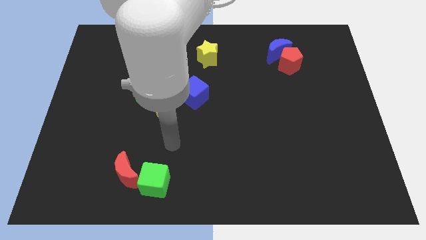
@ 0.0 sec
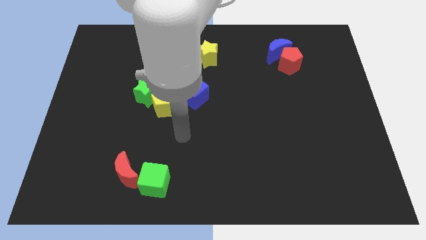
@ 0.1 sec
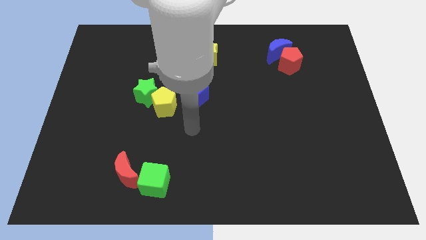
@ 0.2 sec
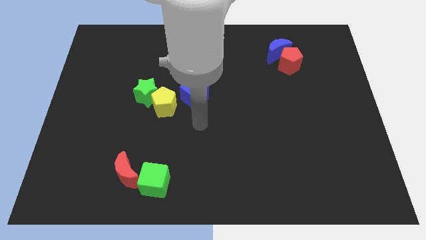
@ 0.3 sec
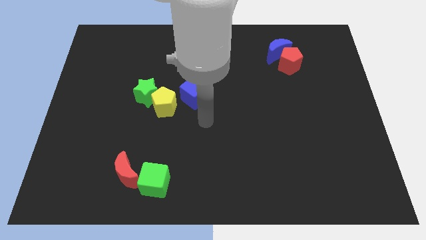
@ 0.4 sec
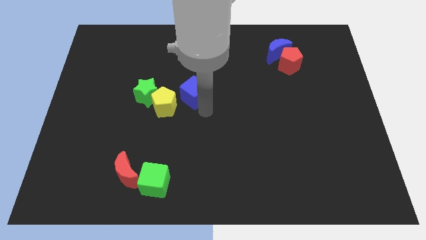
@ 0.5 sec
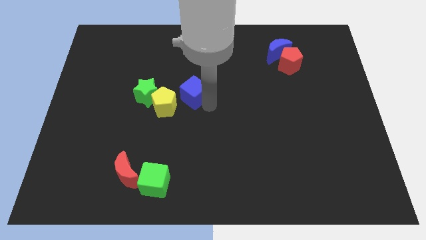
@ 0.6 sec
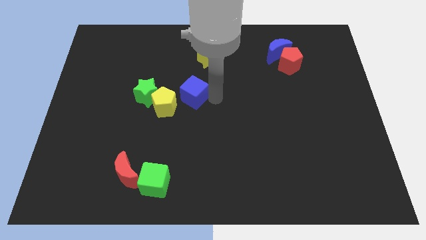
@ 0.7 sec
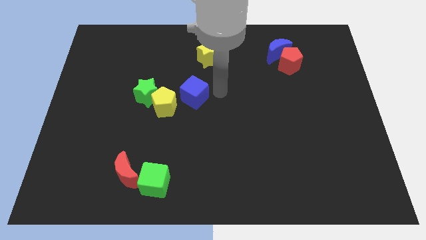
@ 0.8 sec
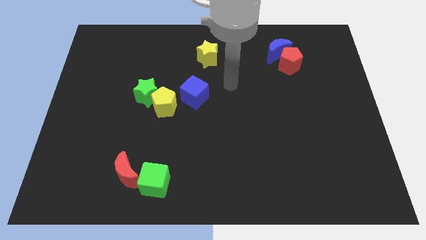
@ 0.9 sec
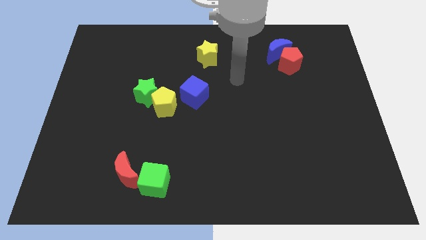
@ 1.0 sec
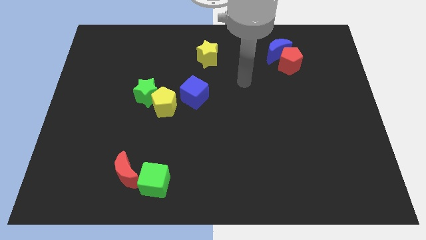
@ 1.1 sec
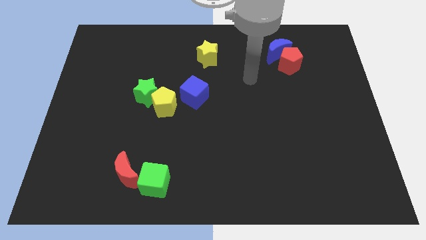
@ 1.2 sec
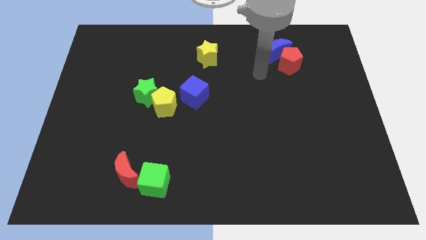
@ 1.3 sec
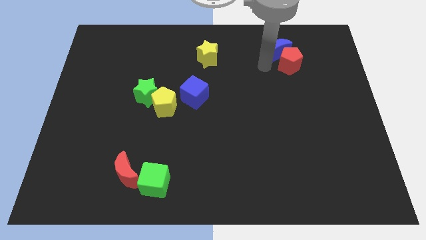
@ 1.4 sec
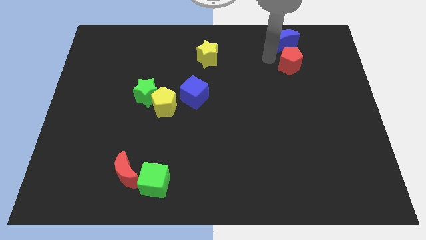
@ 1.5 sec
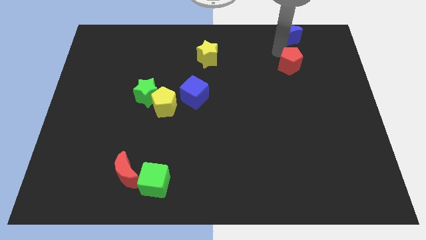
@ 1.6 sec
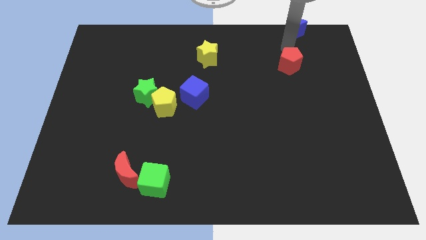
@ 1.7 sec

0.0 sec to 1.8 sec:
move the red pentagon away from the blue moon

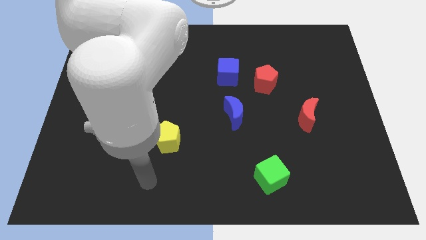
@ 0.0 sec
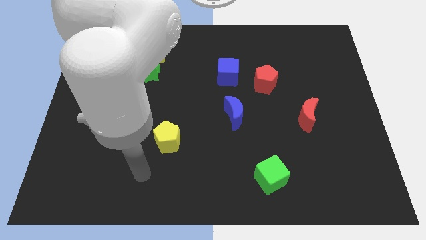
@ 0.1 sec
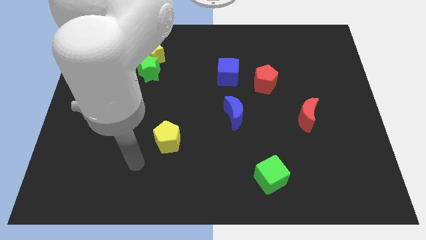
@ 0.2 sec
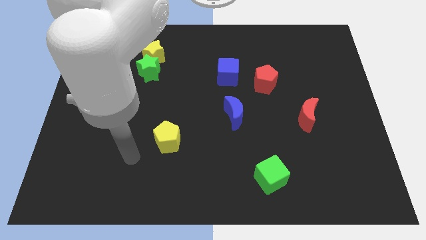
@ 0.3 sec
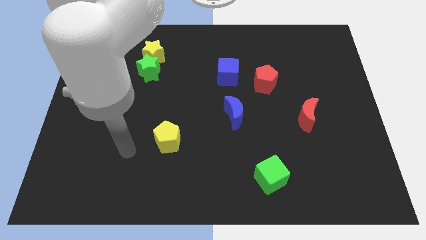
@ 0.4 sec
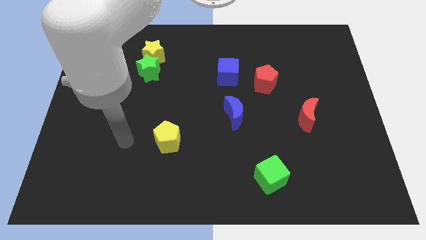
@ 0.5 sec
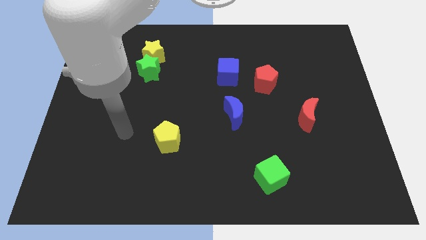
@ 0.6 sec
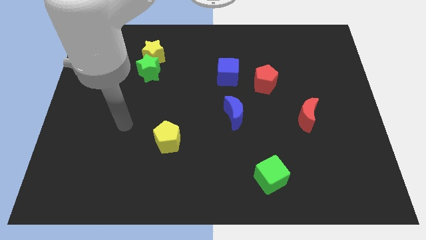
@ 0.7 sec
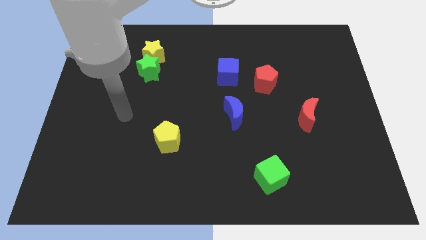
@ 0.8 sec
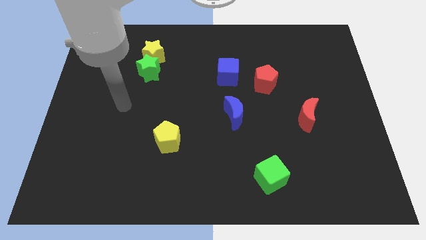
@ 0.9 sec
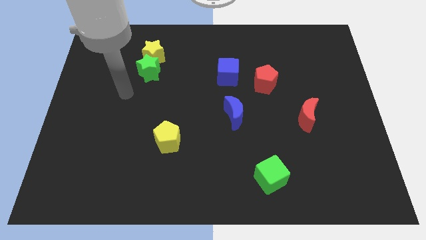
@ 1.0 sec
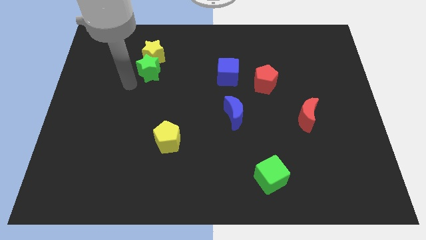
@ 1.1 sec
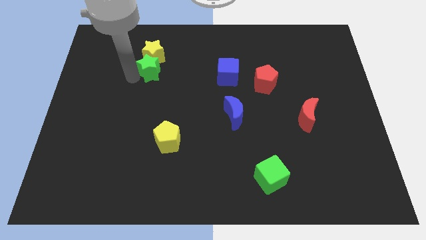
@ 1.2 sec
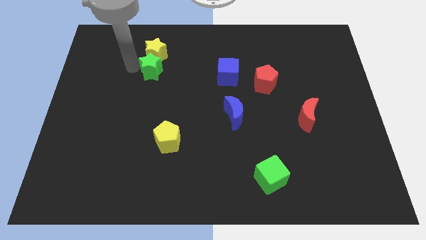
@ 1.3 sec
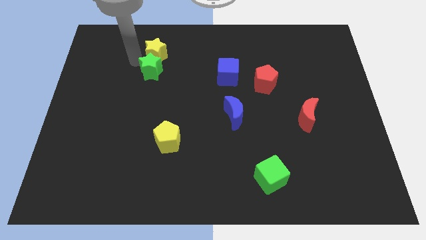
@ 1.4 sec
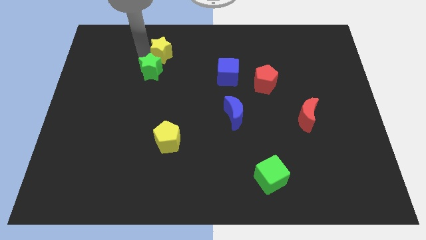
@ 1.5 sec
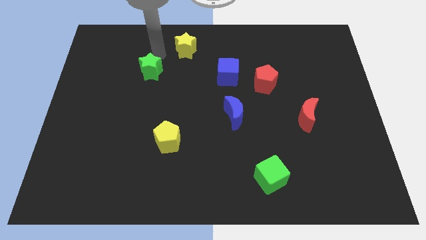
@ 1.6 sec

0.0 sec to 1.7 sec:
move the green star away from the yellow star

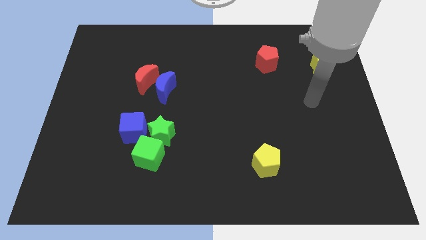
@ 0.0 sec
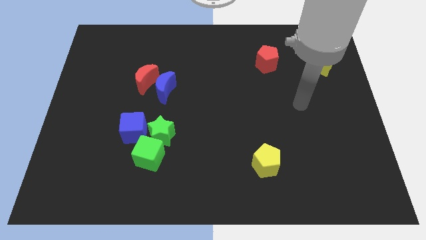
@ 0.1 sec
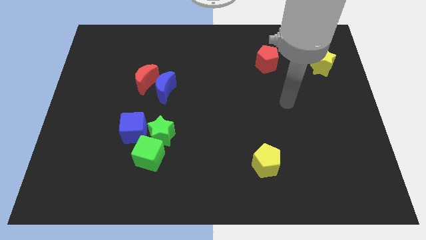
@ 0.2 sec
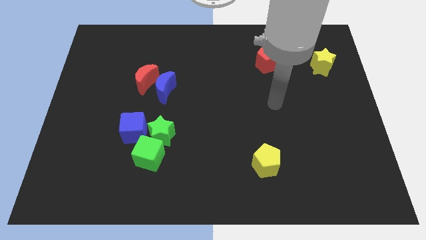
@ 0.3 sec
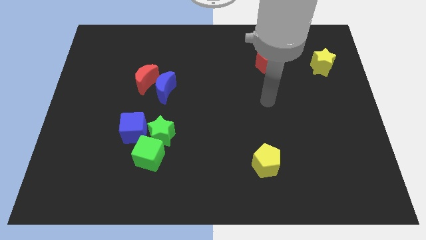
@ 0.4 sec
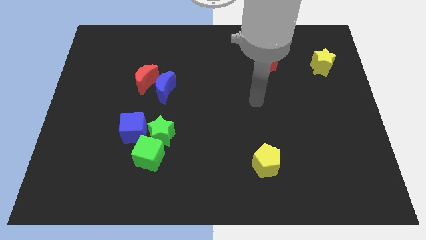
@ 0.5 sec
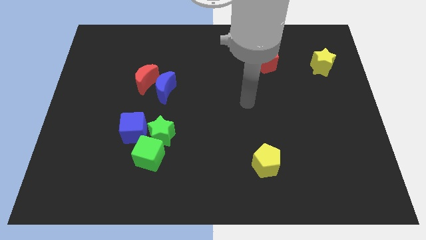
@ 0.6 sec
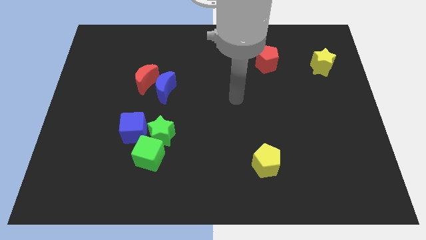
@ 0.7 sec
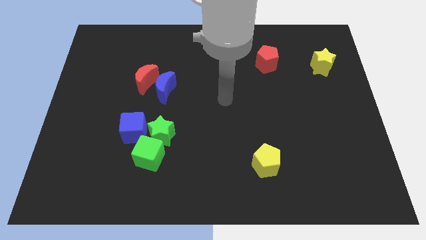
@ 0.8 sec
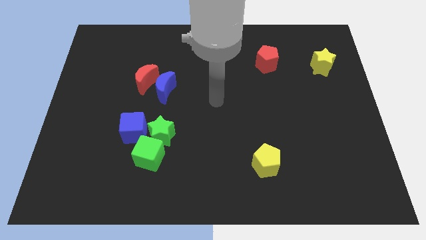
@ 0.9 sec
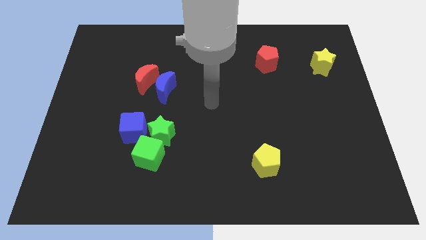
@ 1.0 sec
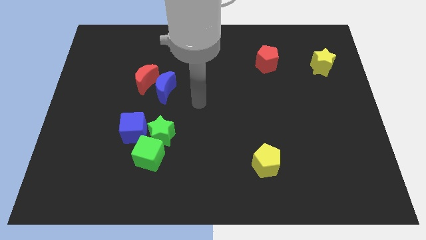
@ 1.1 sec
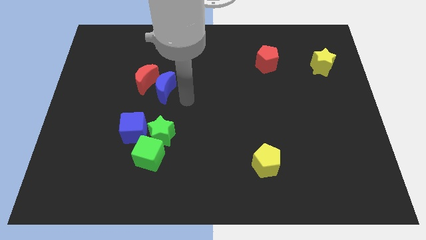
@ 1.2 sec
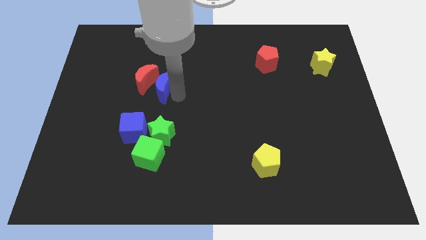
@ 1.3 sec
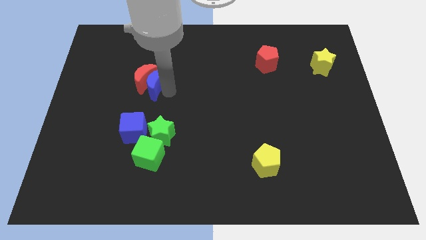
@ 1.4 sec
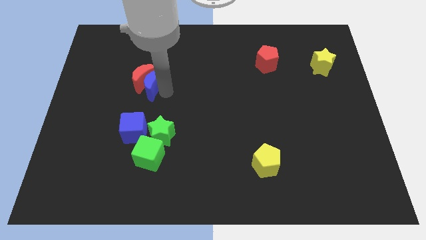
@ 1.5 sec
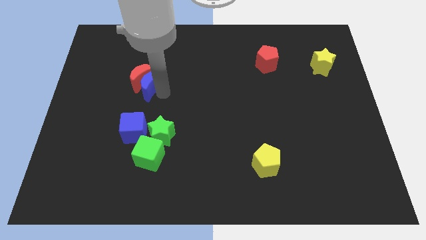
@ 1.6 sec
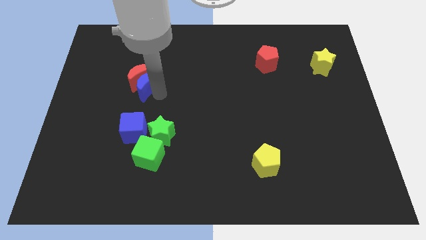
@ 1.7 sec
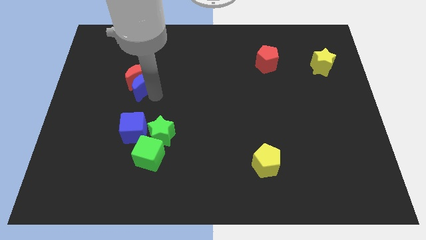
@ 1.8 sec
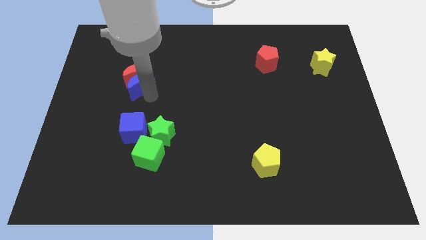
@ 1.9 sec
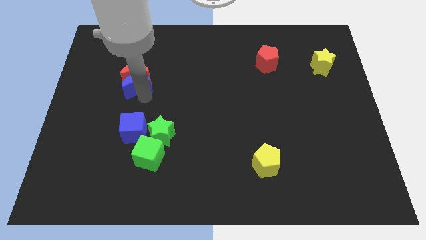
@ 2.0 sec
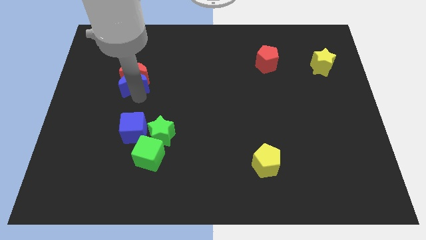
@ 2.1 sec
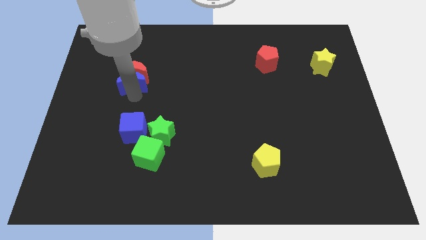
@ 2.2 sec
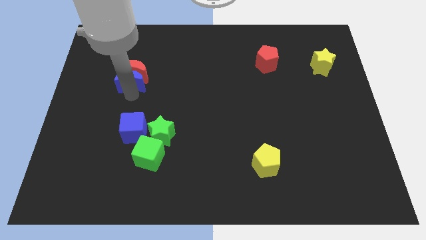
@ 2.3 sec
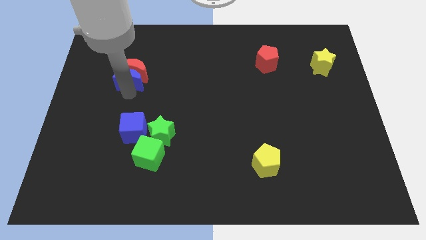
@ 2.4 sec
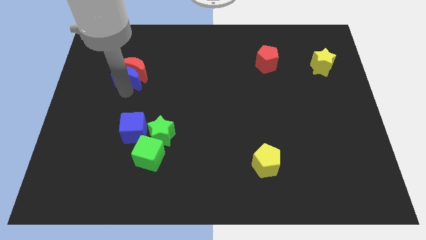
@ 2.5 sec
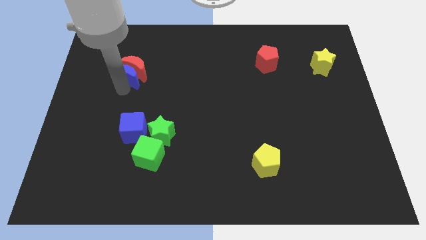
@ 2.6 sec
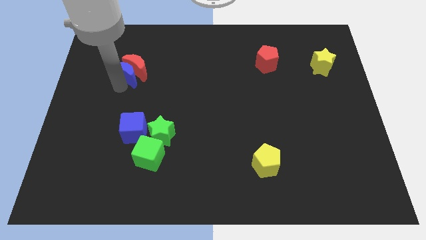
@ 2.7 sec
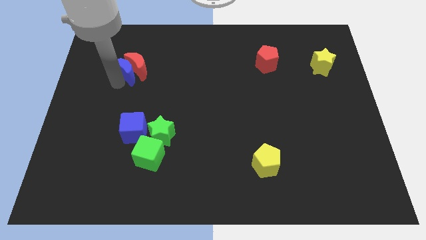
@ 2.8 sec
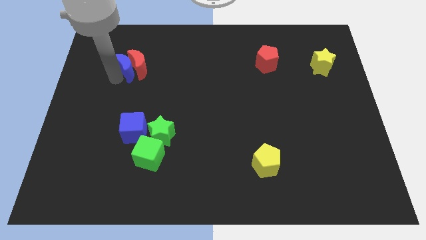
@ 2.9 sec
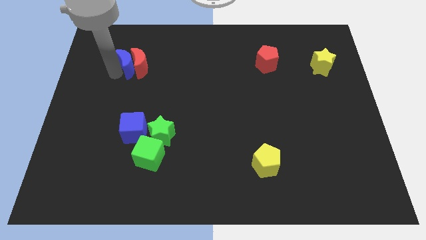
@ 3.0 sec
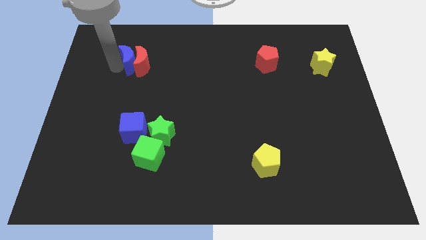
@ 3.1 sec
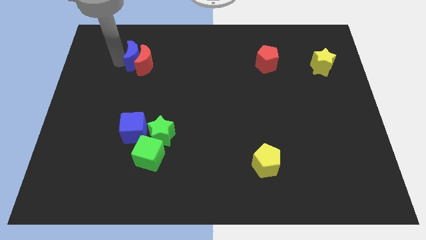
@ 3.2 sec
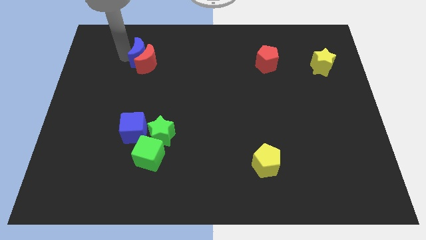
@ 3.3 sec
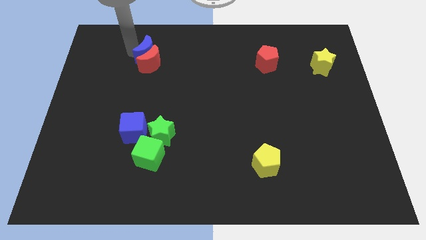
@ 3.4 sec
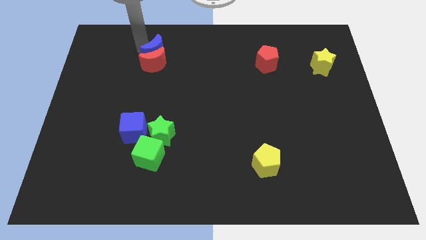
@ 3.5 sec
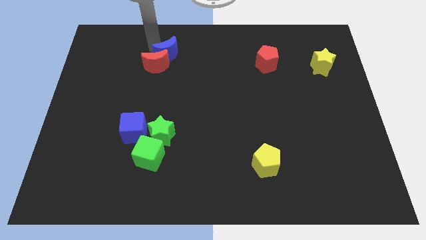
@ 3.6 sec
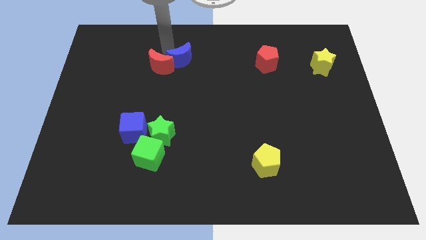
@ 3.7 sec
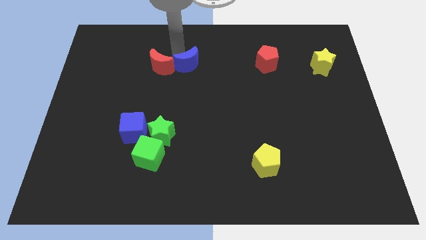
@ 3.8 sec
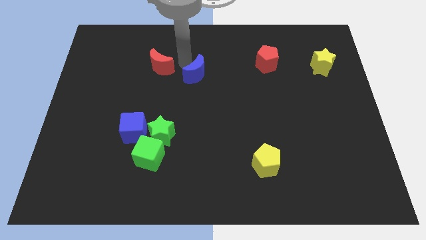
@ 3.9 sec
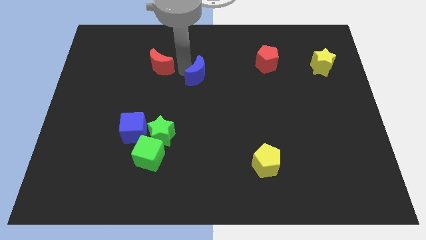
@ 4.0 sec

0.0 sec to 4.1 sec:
separate the red moon from the blue moon

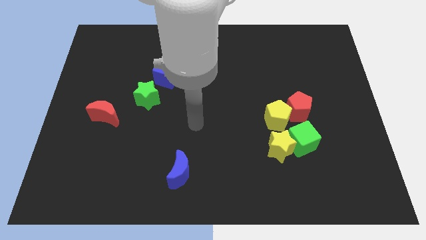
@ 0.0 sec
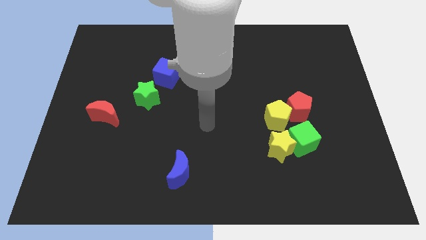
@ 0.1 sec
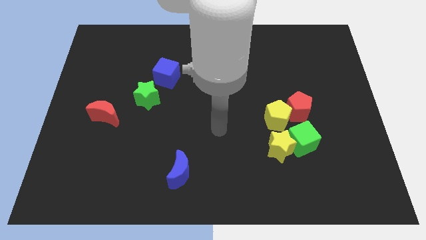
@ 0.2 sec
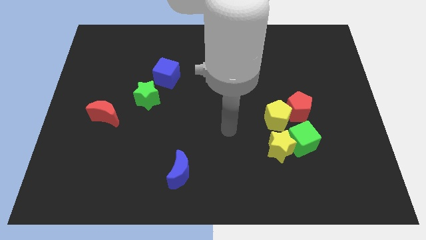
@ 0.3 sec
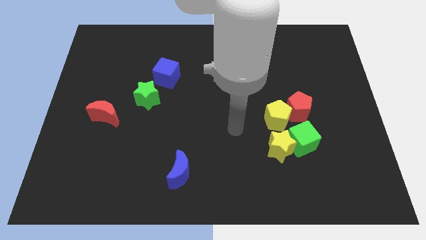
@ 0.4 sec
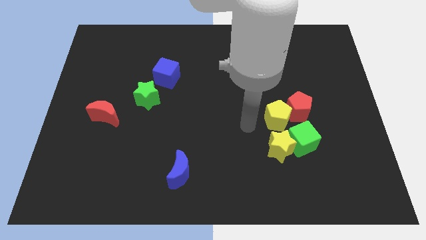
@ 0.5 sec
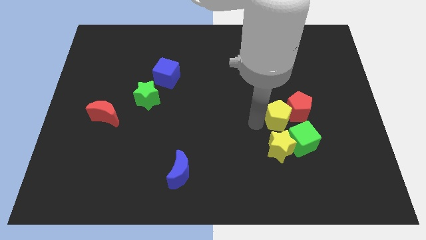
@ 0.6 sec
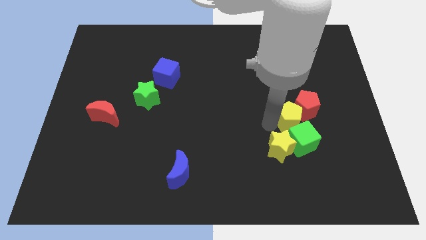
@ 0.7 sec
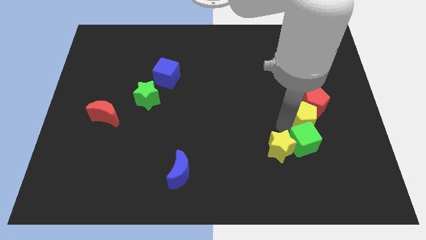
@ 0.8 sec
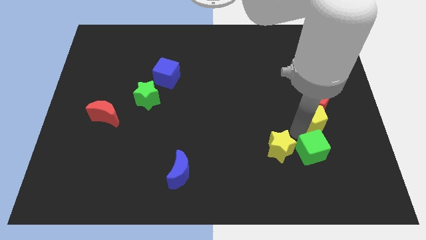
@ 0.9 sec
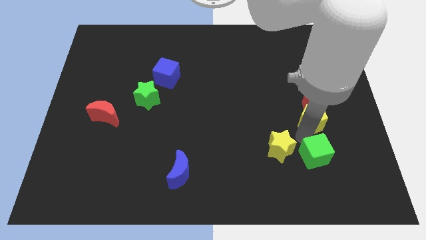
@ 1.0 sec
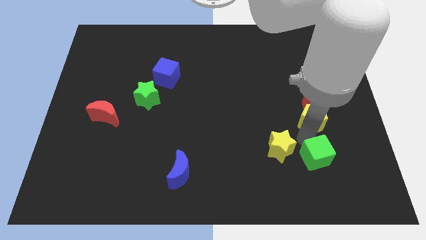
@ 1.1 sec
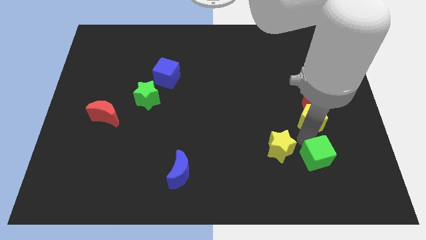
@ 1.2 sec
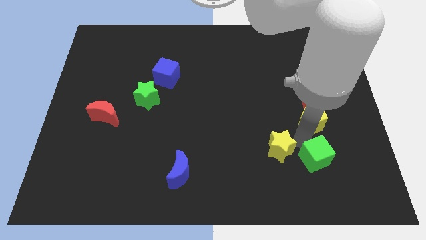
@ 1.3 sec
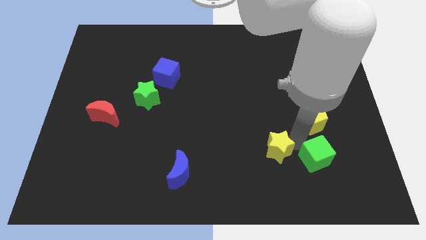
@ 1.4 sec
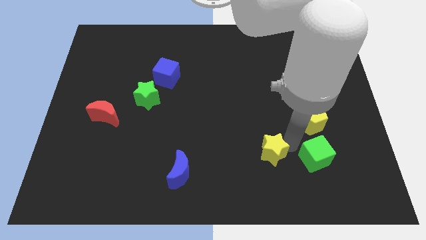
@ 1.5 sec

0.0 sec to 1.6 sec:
separate the yellow star from the green cube and yellow pentagon
